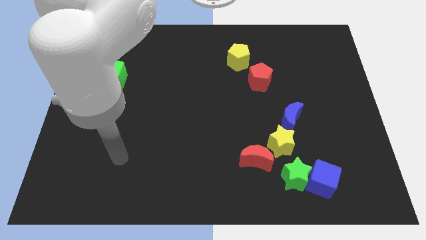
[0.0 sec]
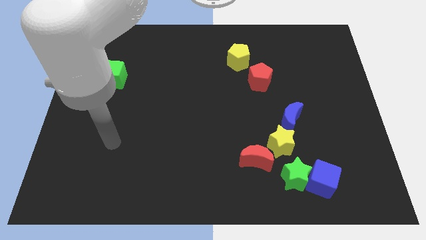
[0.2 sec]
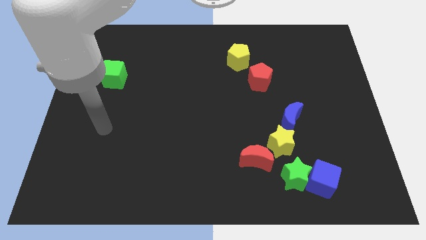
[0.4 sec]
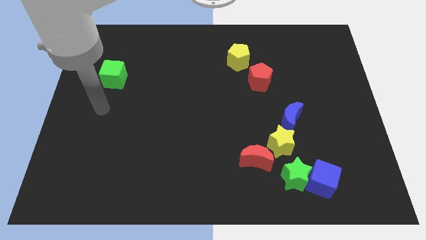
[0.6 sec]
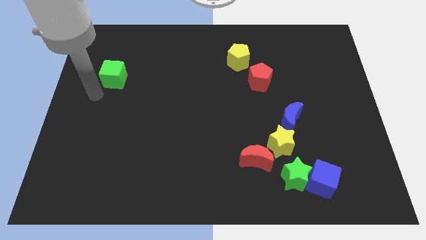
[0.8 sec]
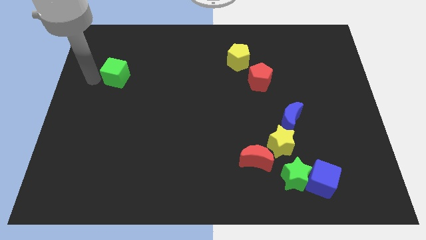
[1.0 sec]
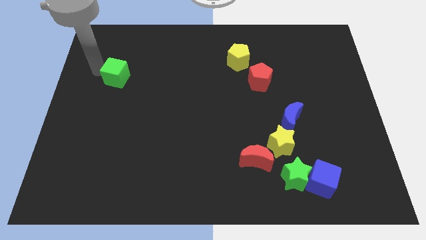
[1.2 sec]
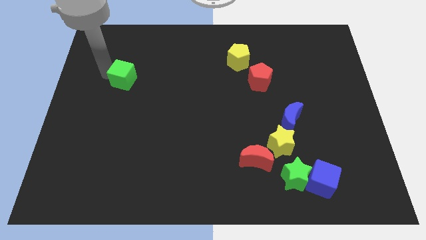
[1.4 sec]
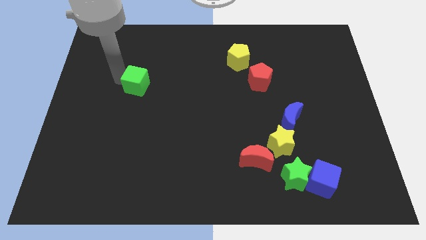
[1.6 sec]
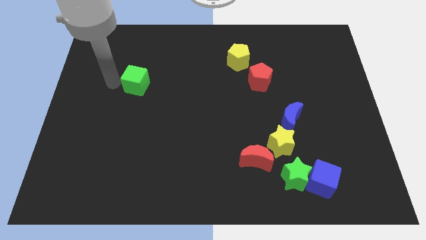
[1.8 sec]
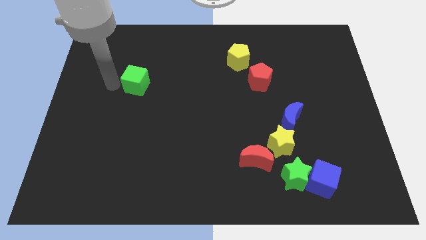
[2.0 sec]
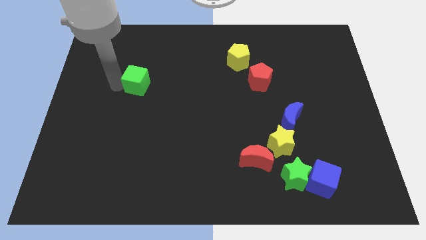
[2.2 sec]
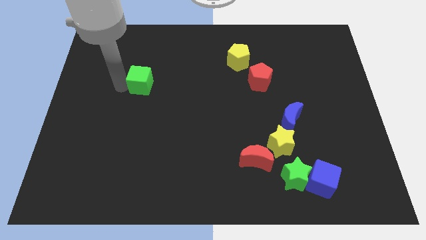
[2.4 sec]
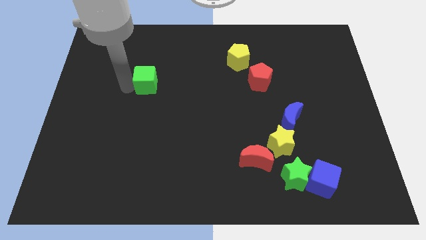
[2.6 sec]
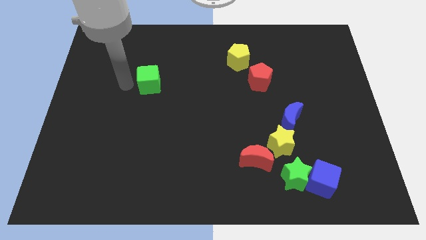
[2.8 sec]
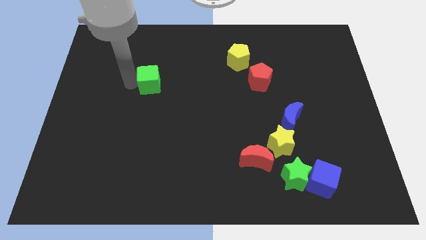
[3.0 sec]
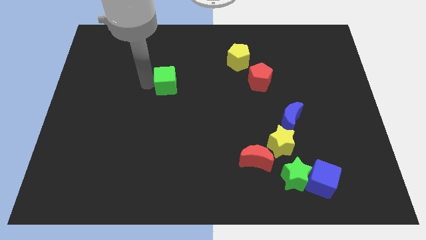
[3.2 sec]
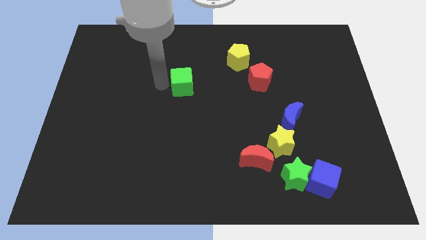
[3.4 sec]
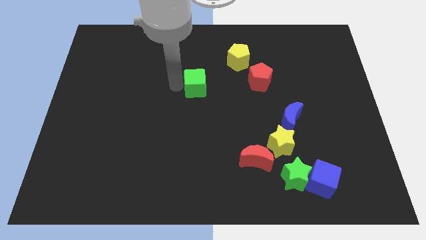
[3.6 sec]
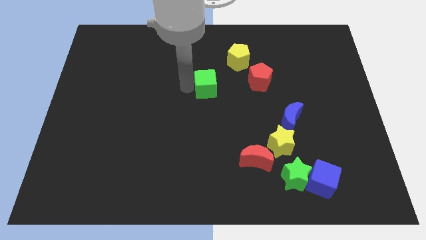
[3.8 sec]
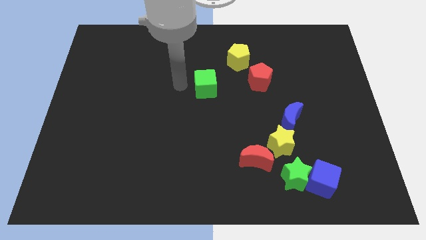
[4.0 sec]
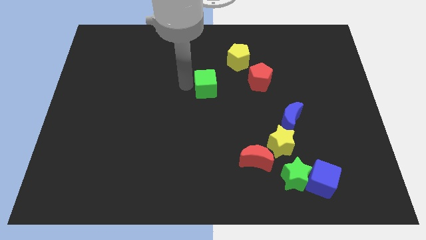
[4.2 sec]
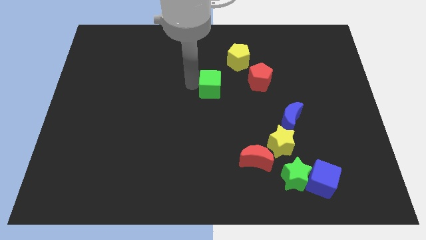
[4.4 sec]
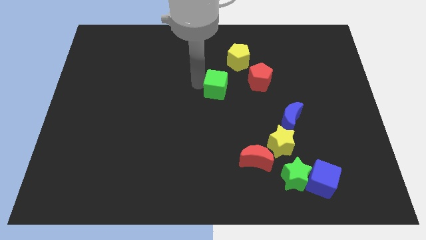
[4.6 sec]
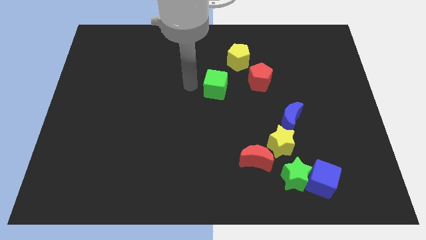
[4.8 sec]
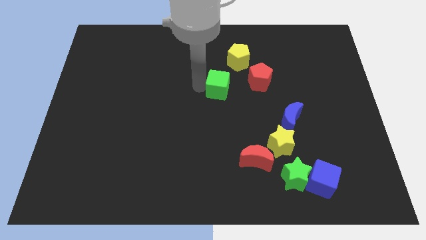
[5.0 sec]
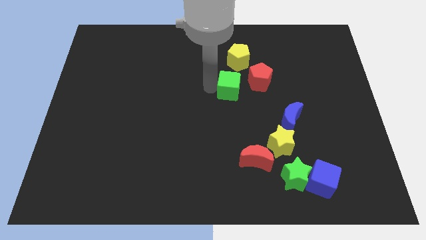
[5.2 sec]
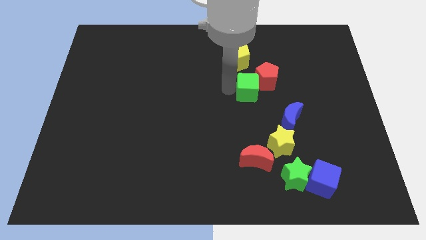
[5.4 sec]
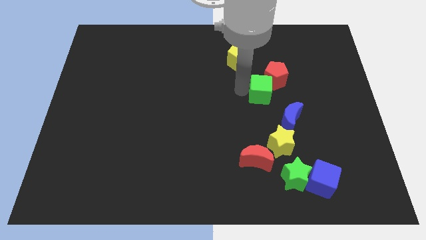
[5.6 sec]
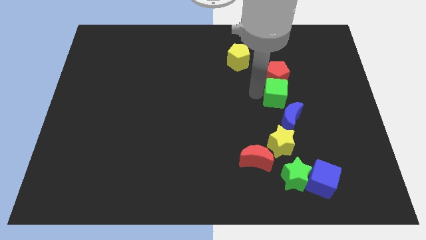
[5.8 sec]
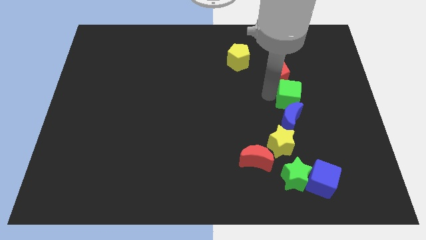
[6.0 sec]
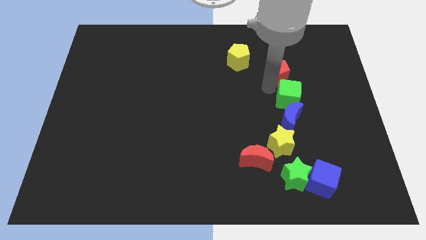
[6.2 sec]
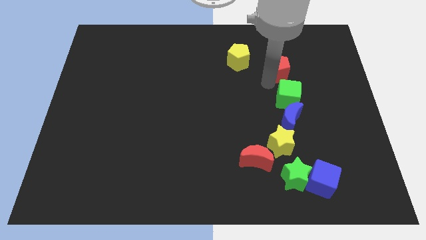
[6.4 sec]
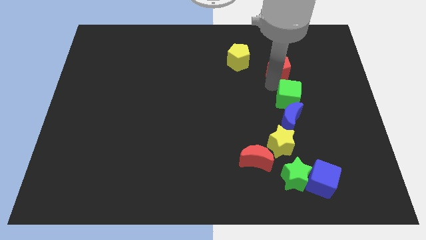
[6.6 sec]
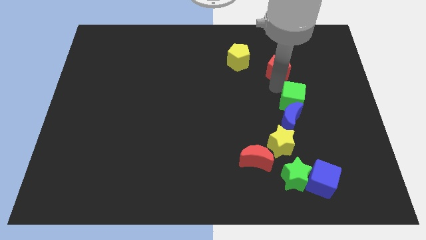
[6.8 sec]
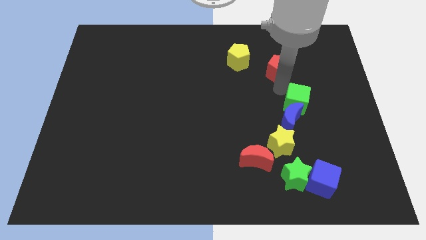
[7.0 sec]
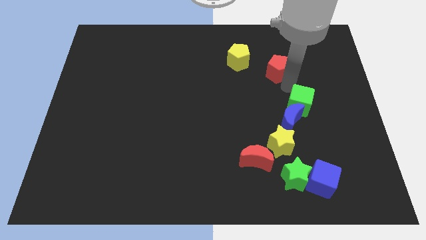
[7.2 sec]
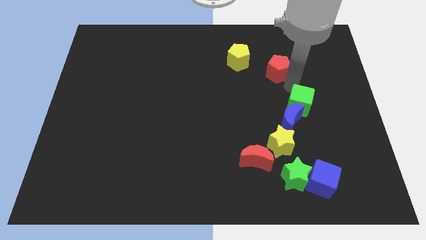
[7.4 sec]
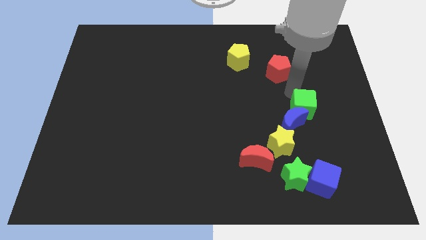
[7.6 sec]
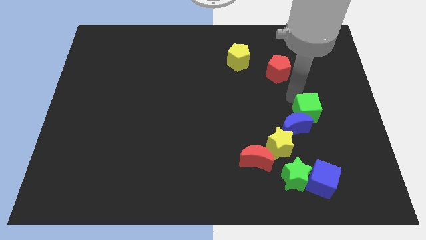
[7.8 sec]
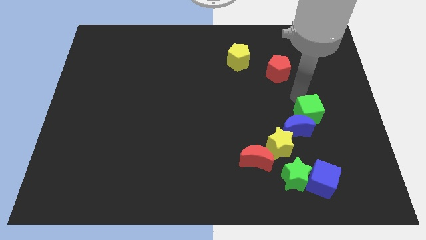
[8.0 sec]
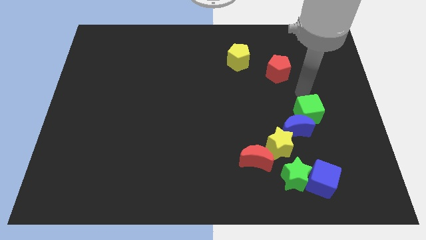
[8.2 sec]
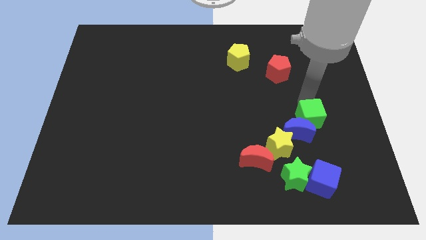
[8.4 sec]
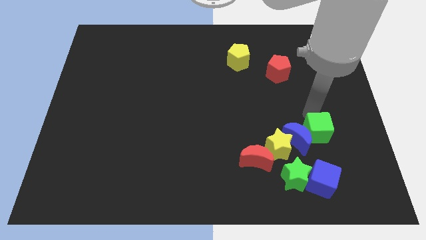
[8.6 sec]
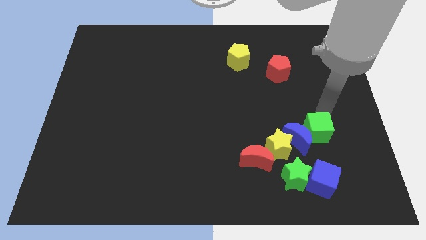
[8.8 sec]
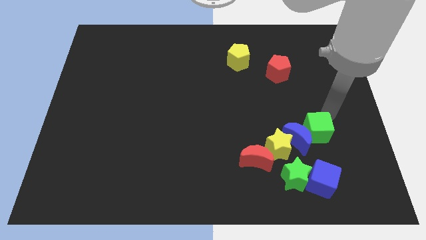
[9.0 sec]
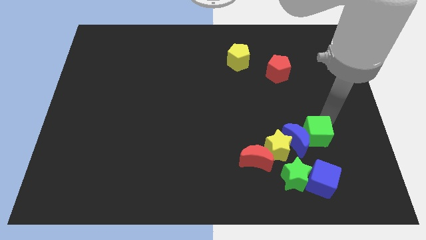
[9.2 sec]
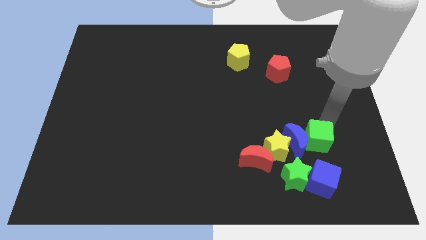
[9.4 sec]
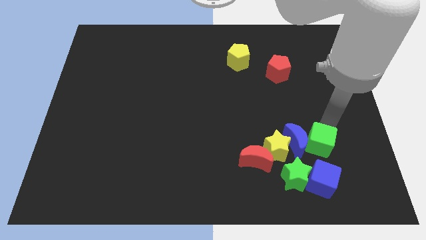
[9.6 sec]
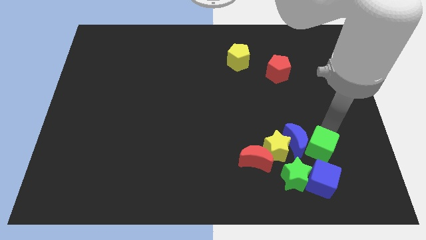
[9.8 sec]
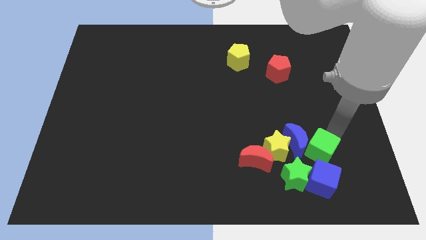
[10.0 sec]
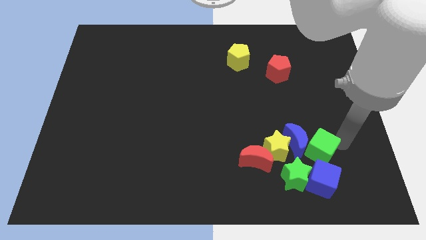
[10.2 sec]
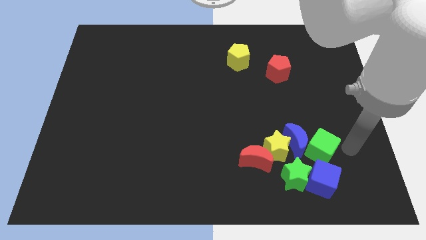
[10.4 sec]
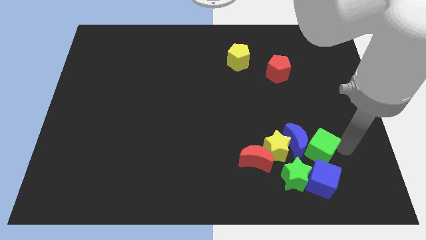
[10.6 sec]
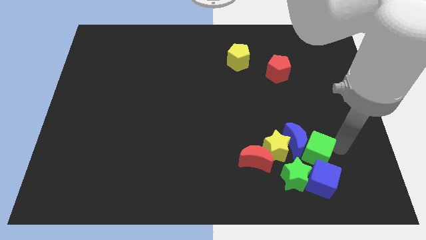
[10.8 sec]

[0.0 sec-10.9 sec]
put the green cube to the top left of the blue cube

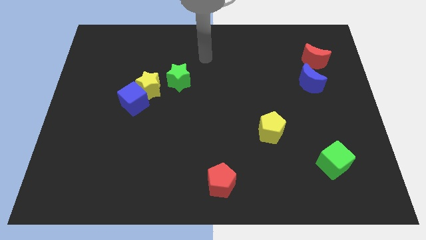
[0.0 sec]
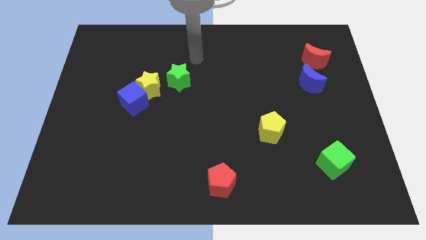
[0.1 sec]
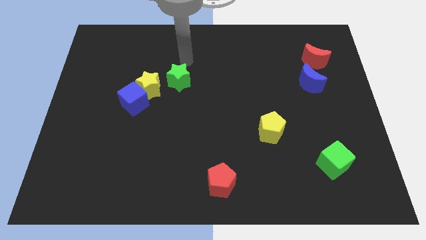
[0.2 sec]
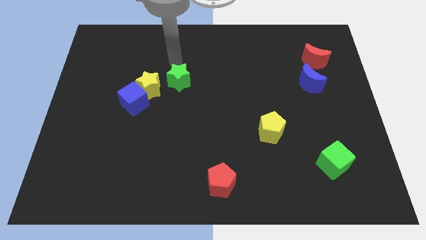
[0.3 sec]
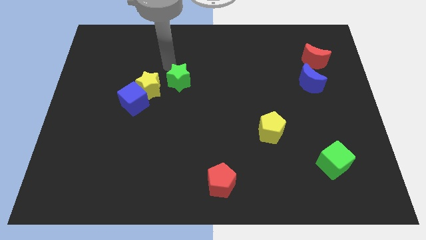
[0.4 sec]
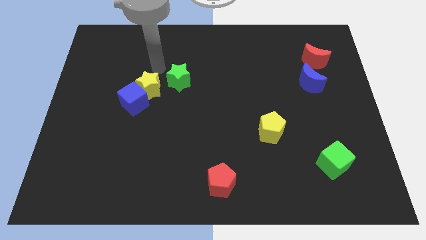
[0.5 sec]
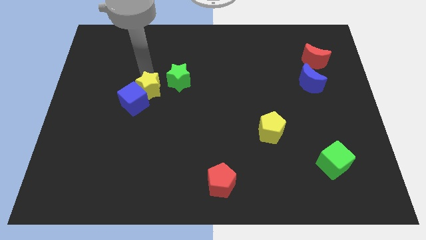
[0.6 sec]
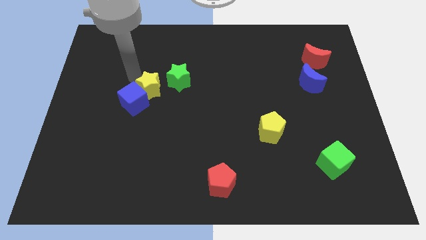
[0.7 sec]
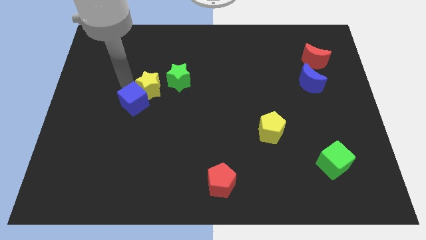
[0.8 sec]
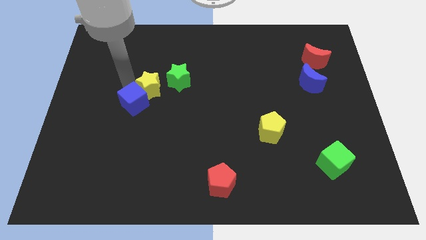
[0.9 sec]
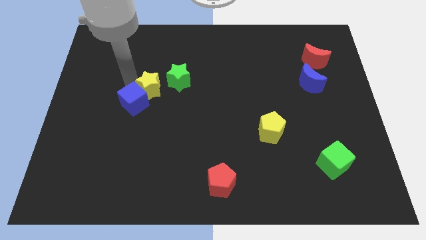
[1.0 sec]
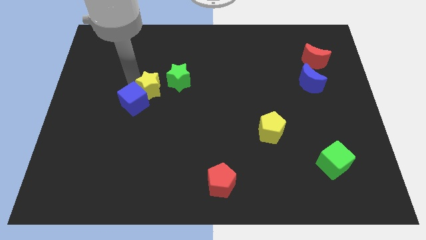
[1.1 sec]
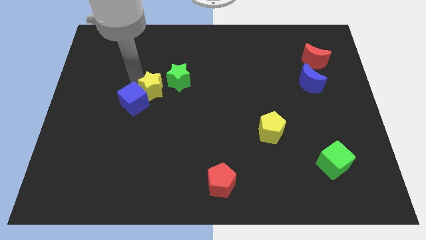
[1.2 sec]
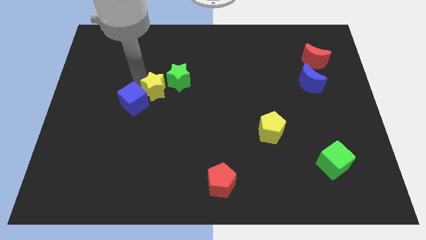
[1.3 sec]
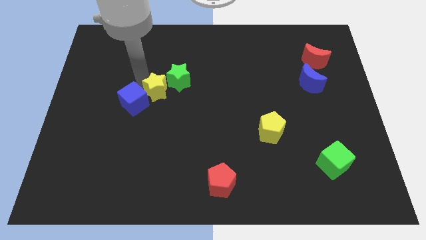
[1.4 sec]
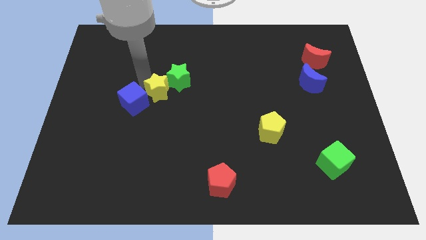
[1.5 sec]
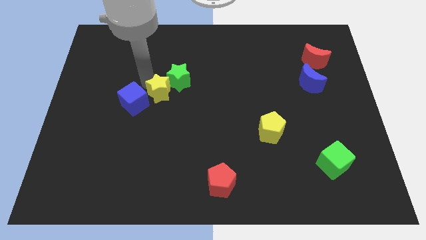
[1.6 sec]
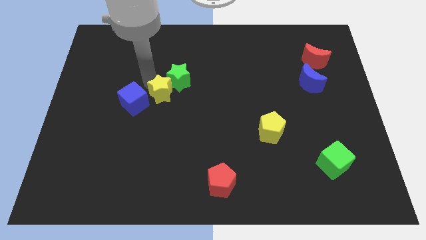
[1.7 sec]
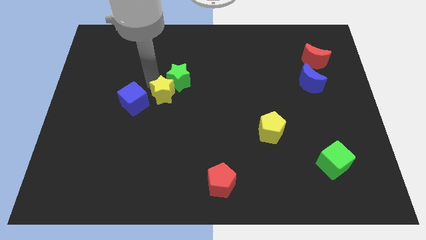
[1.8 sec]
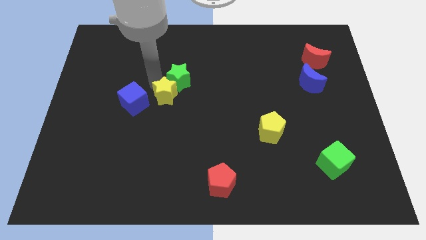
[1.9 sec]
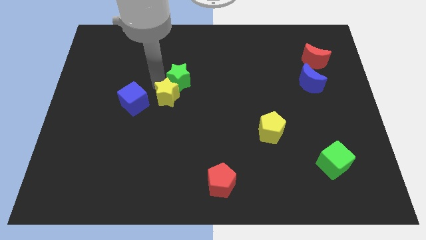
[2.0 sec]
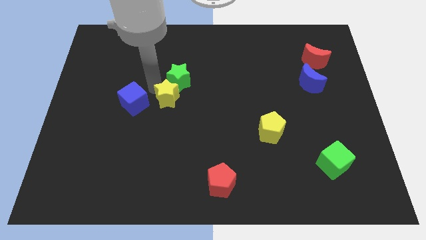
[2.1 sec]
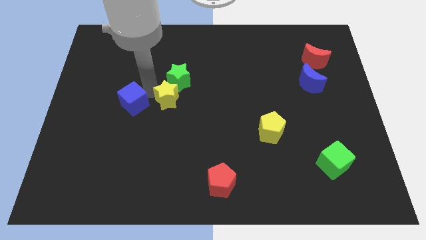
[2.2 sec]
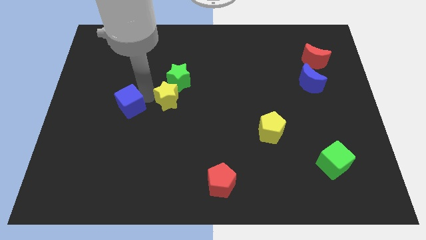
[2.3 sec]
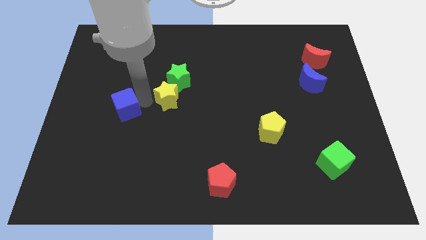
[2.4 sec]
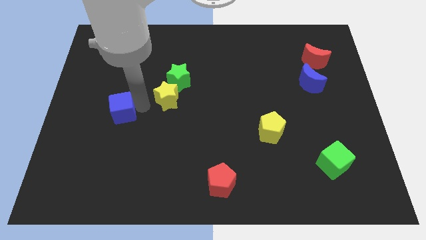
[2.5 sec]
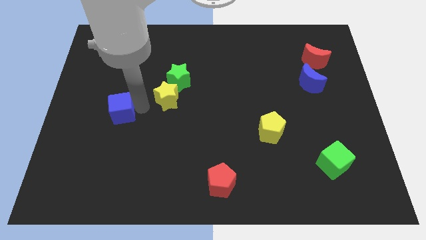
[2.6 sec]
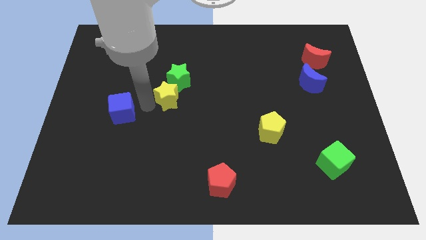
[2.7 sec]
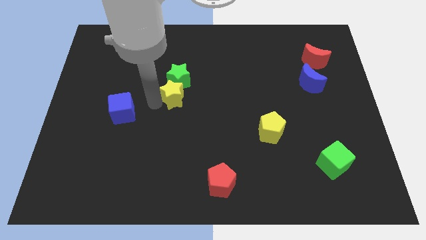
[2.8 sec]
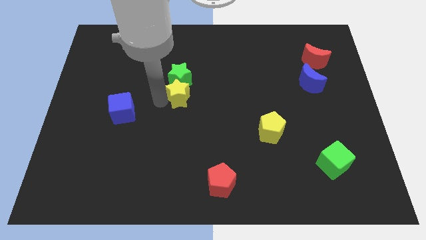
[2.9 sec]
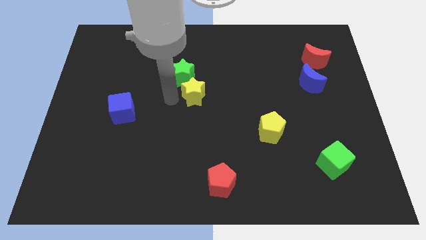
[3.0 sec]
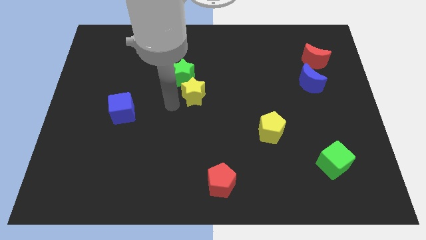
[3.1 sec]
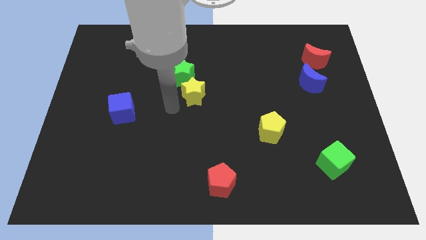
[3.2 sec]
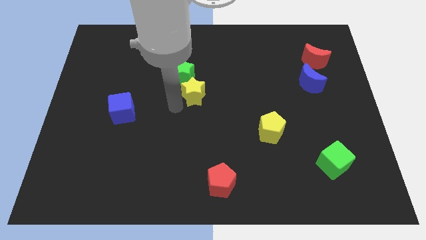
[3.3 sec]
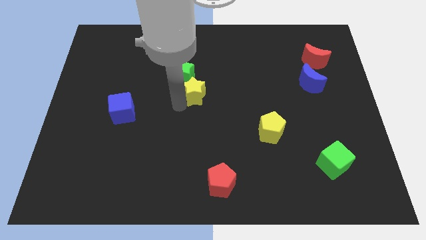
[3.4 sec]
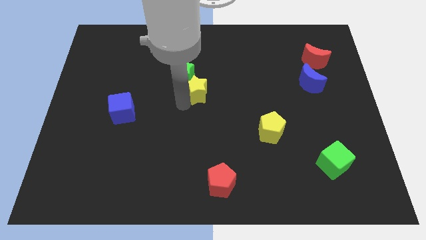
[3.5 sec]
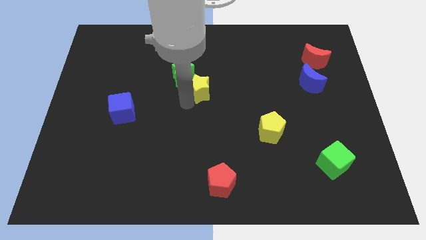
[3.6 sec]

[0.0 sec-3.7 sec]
push the yellow star to the right of the green star
